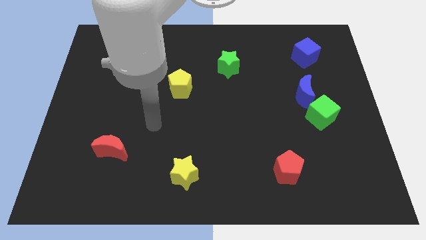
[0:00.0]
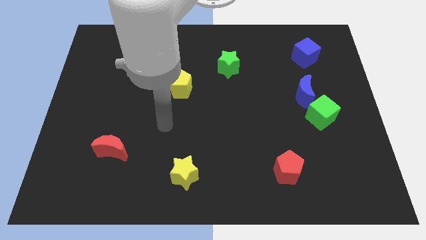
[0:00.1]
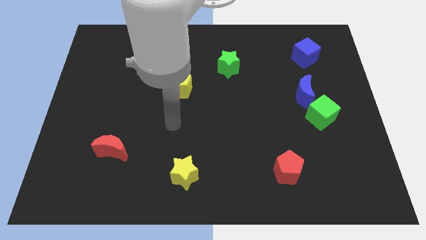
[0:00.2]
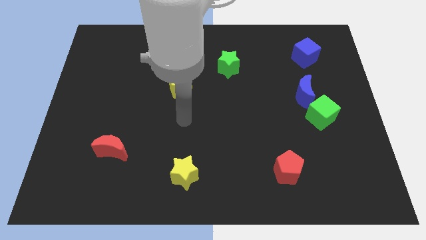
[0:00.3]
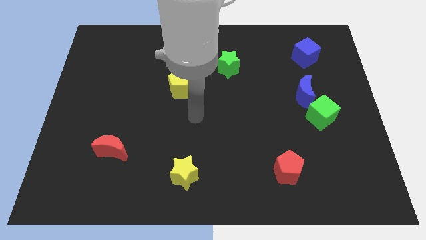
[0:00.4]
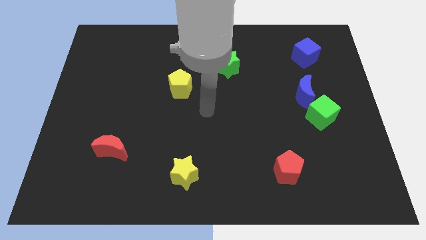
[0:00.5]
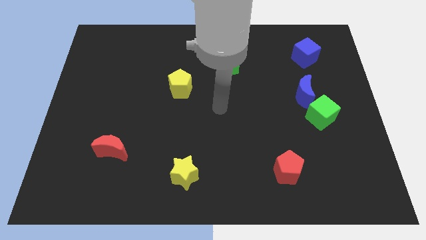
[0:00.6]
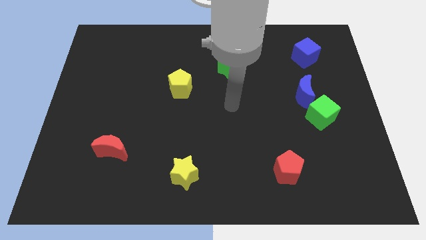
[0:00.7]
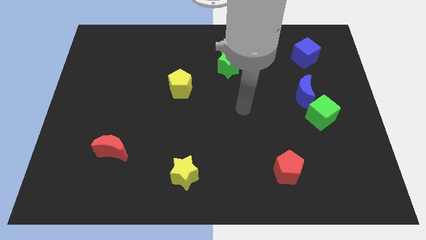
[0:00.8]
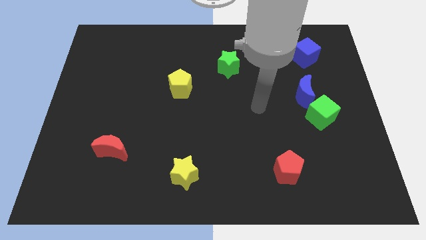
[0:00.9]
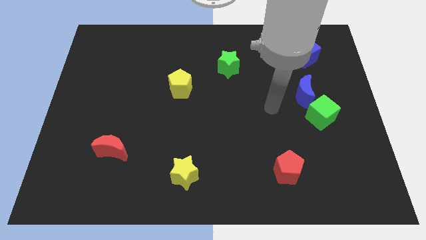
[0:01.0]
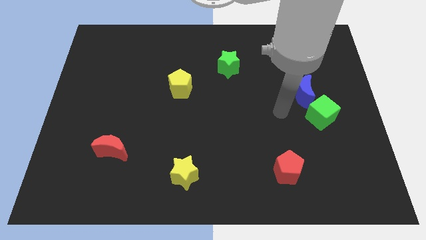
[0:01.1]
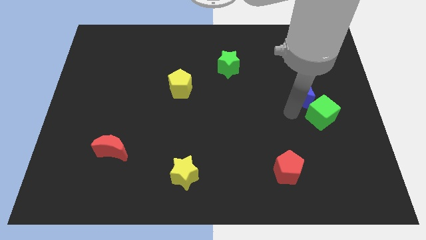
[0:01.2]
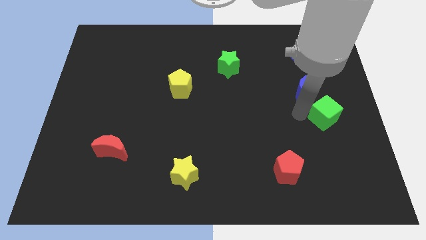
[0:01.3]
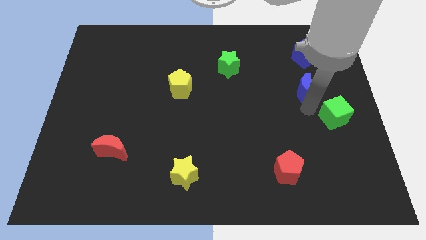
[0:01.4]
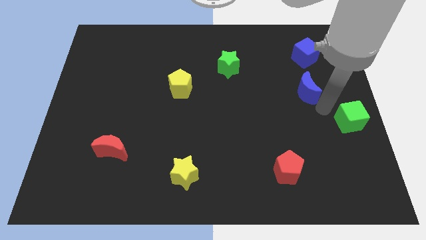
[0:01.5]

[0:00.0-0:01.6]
separate the blue moon from the green cube

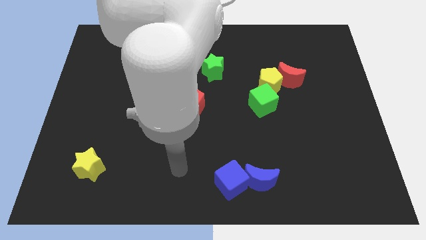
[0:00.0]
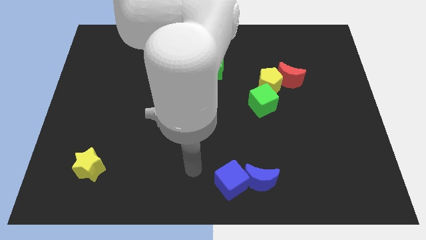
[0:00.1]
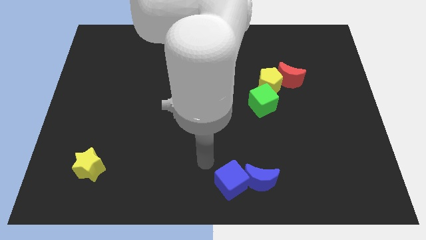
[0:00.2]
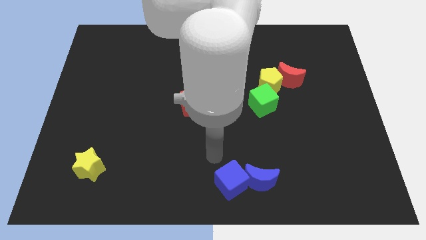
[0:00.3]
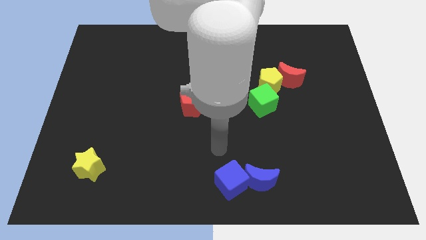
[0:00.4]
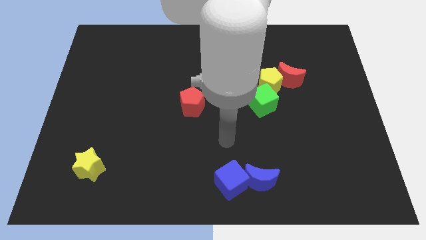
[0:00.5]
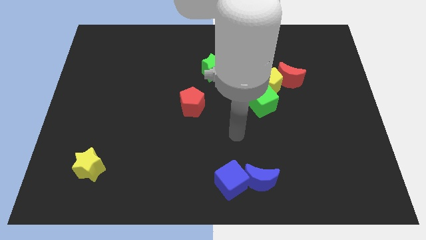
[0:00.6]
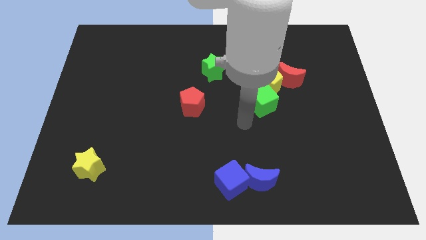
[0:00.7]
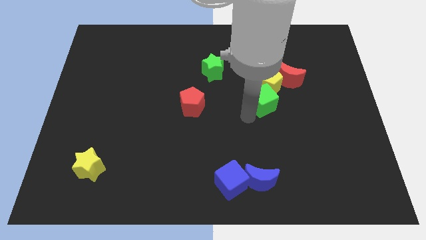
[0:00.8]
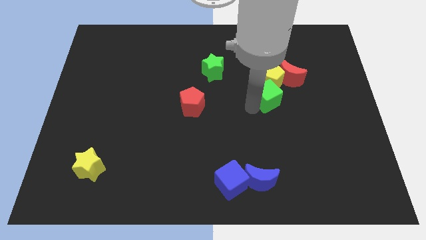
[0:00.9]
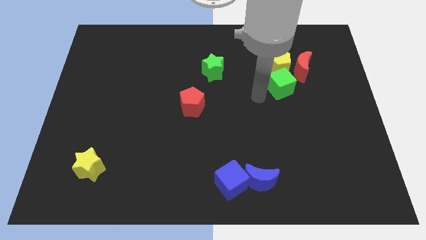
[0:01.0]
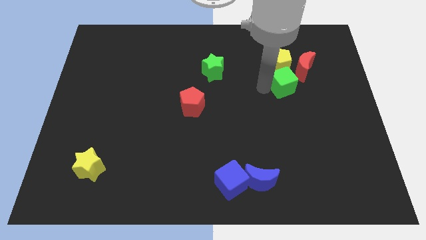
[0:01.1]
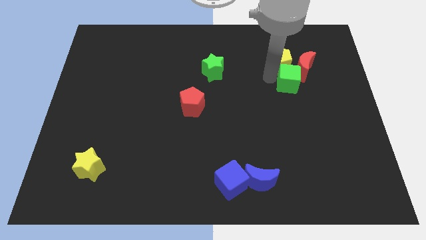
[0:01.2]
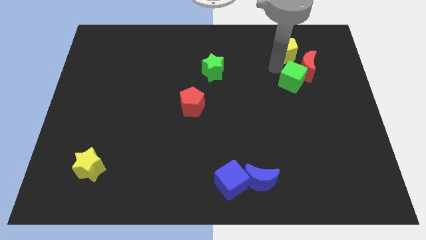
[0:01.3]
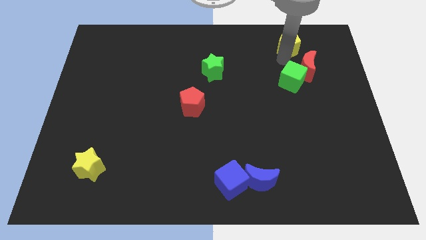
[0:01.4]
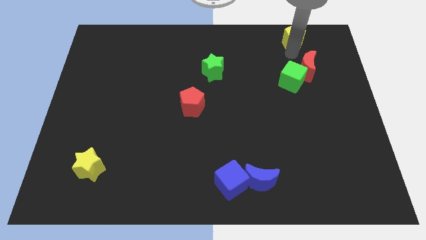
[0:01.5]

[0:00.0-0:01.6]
move the red moon away from the yellow pentagon

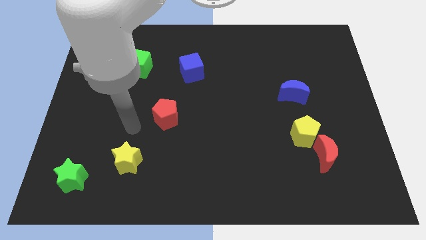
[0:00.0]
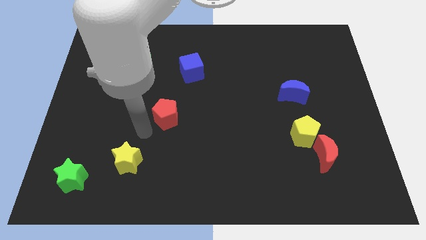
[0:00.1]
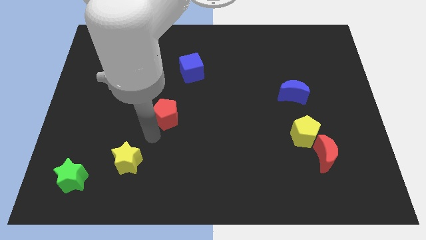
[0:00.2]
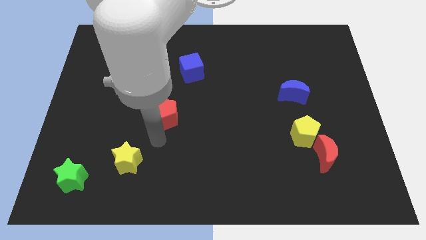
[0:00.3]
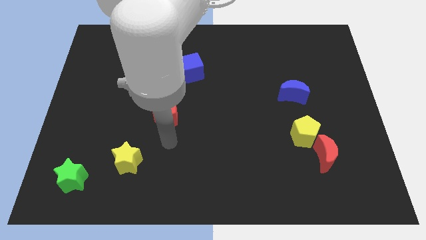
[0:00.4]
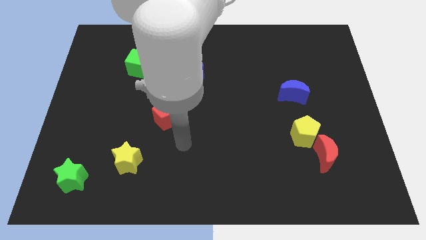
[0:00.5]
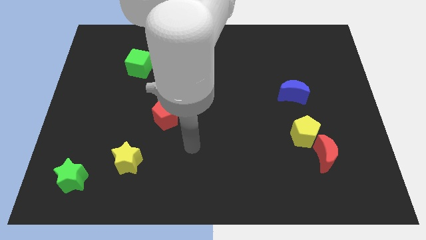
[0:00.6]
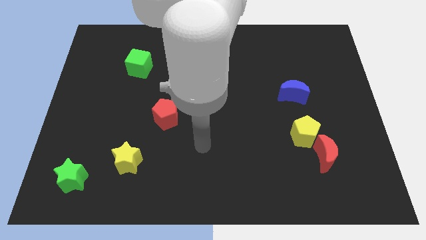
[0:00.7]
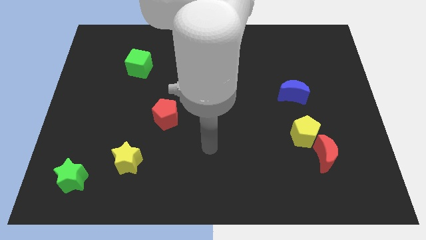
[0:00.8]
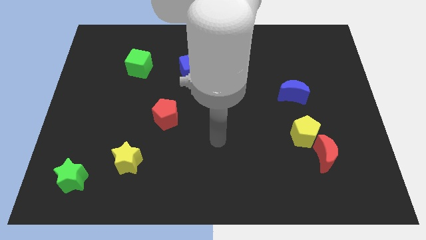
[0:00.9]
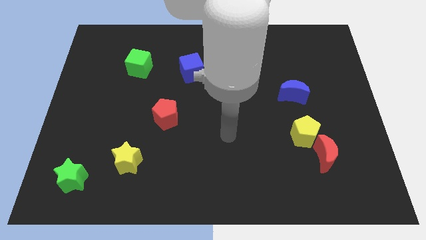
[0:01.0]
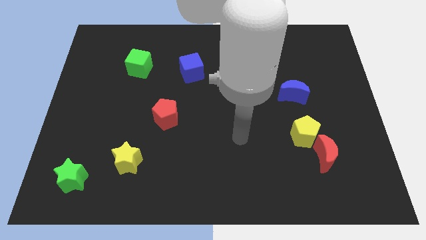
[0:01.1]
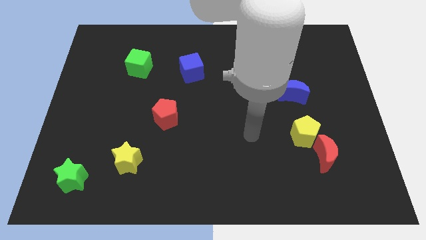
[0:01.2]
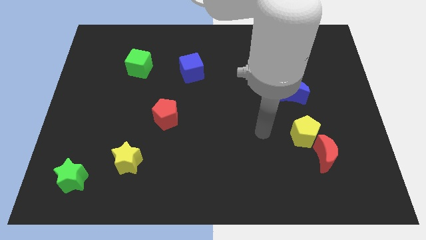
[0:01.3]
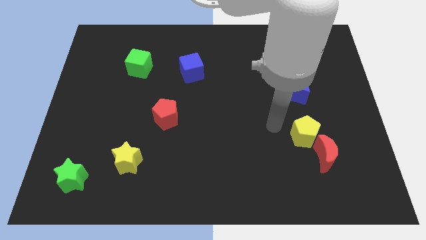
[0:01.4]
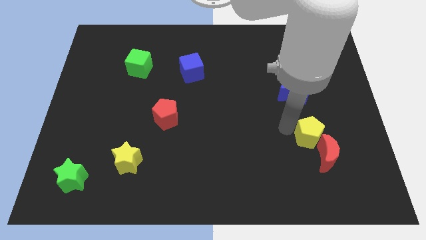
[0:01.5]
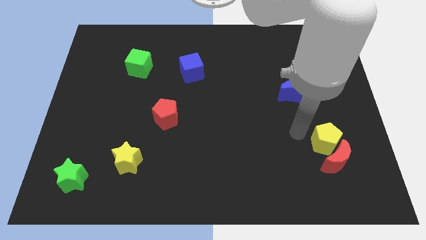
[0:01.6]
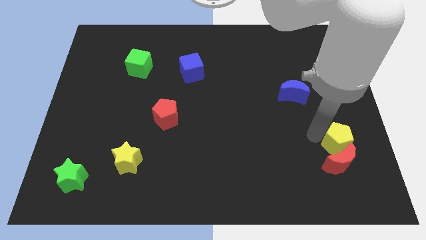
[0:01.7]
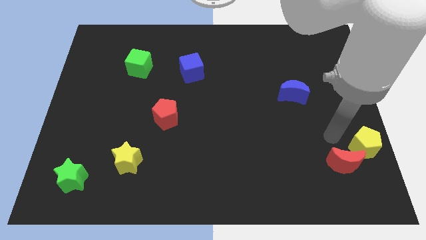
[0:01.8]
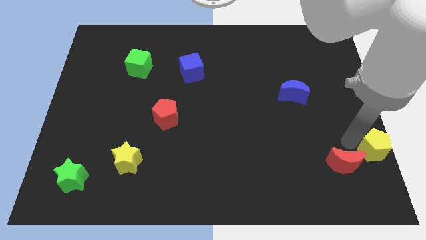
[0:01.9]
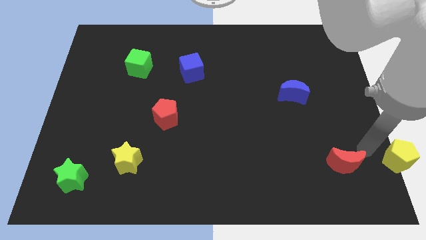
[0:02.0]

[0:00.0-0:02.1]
separate the red moon from the yellow pentagon

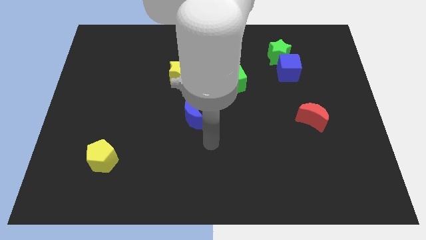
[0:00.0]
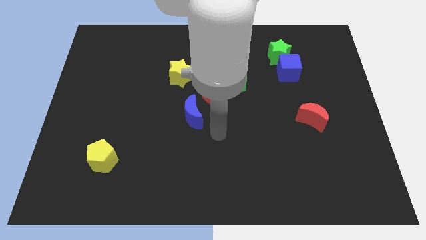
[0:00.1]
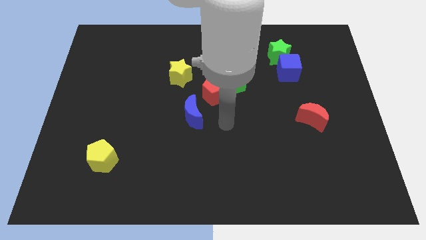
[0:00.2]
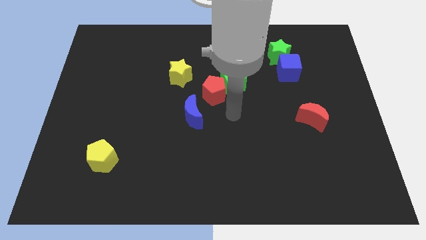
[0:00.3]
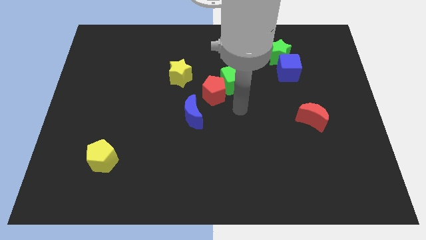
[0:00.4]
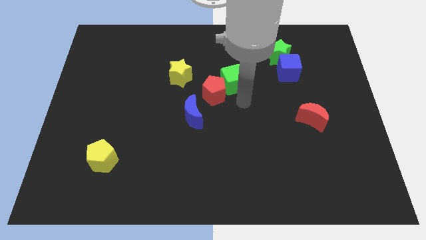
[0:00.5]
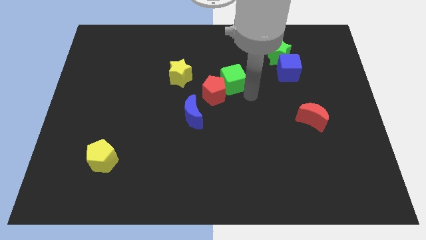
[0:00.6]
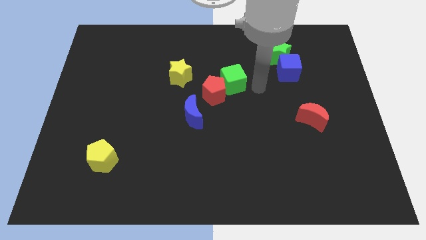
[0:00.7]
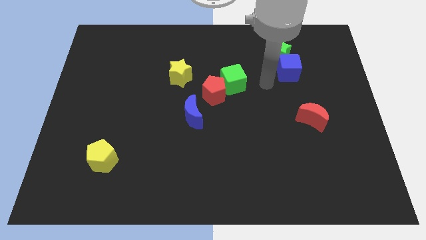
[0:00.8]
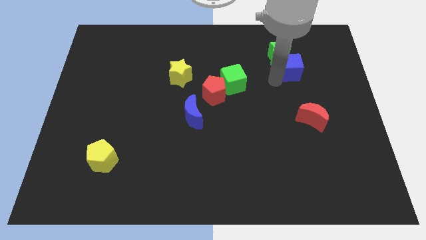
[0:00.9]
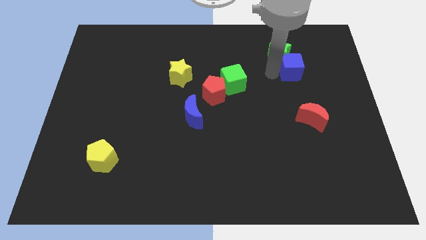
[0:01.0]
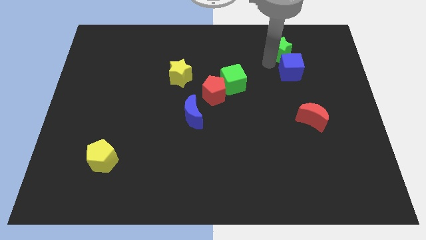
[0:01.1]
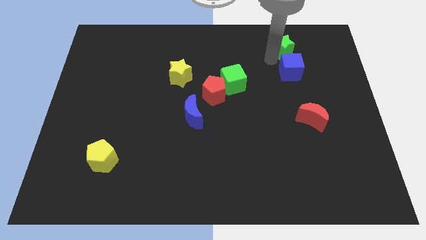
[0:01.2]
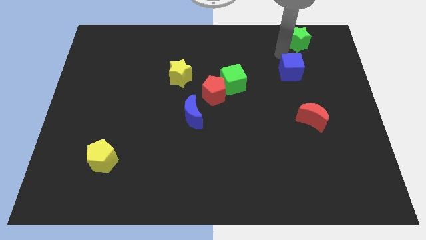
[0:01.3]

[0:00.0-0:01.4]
separate the blue cube from the green star

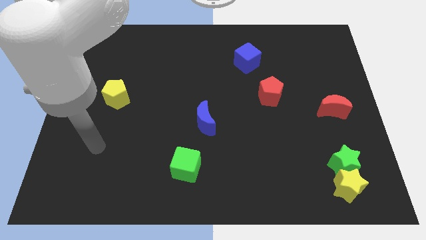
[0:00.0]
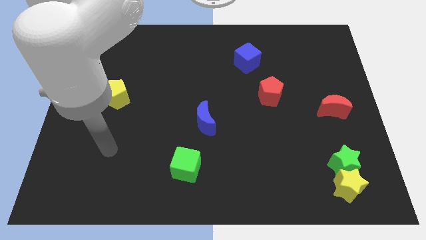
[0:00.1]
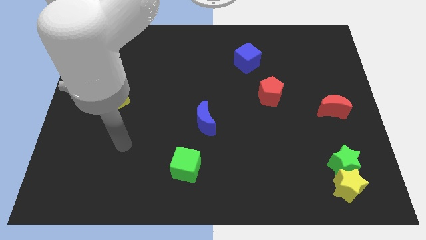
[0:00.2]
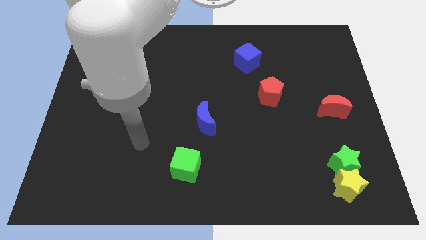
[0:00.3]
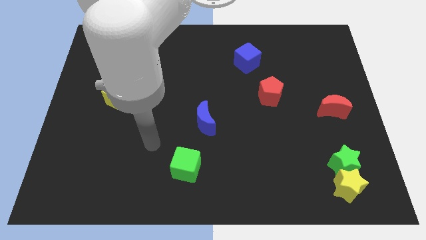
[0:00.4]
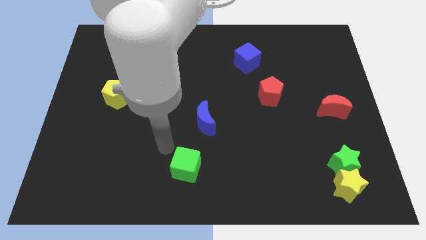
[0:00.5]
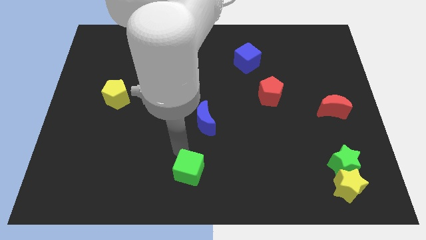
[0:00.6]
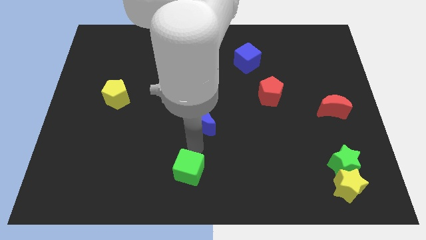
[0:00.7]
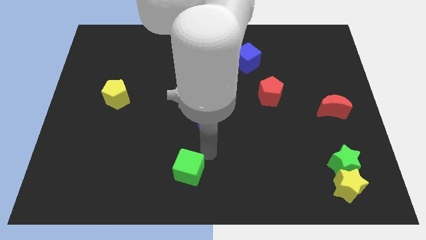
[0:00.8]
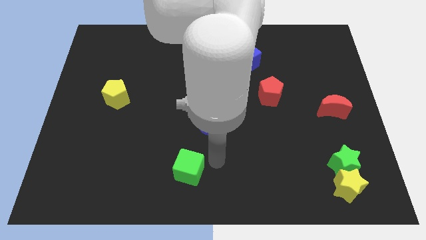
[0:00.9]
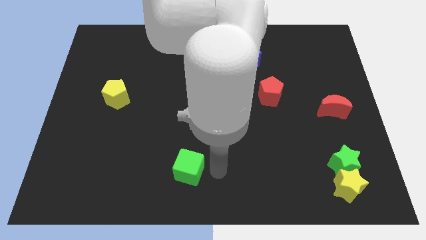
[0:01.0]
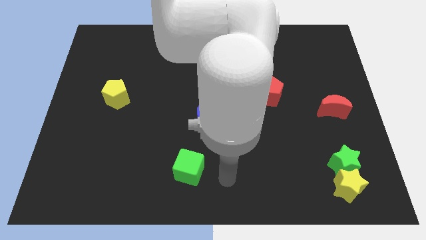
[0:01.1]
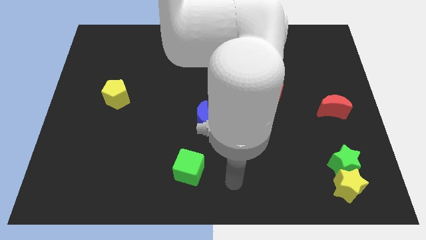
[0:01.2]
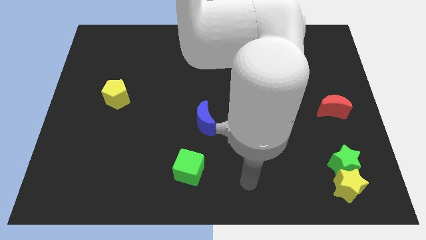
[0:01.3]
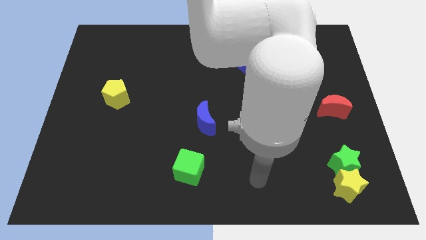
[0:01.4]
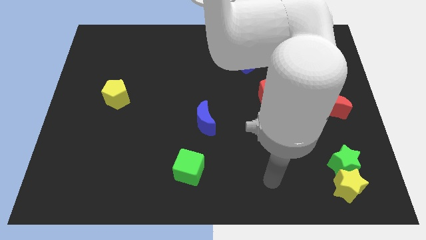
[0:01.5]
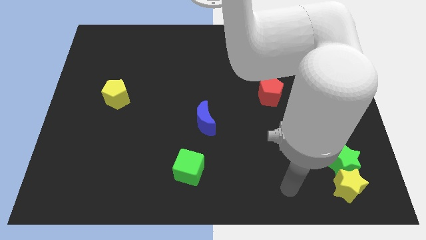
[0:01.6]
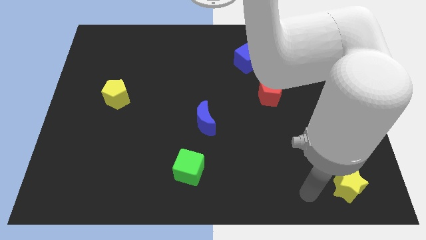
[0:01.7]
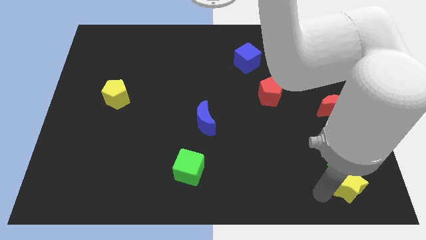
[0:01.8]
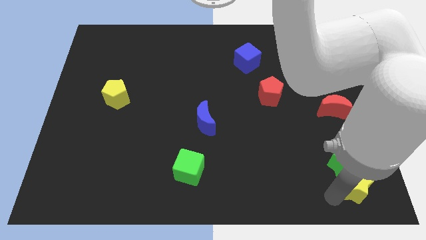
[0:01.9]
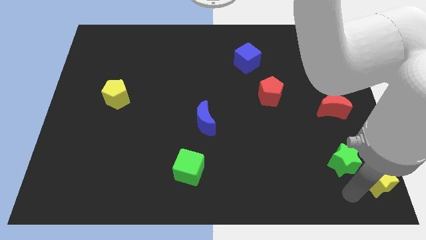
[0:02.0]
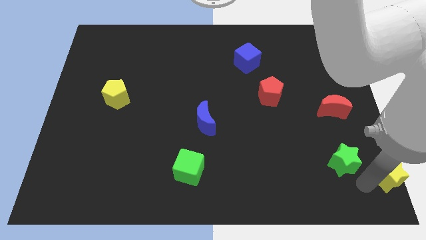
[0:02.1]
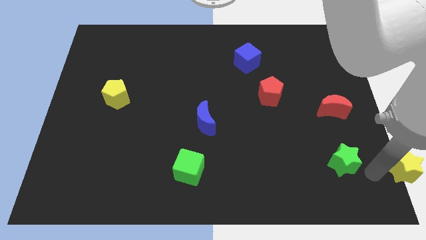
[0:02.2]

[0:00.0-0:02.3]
move the green star away from the yellow star

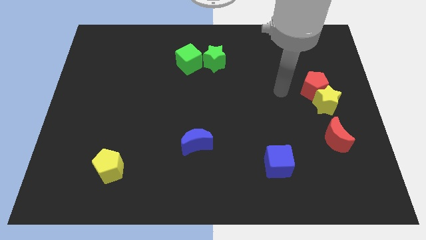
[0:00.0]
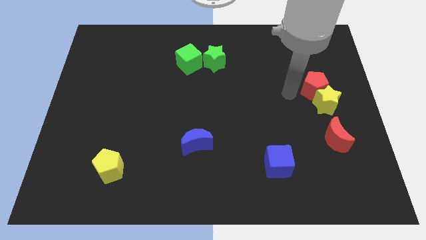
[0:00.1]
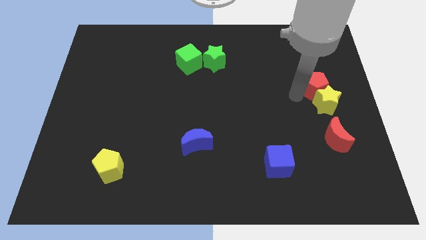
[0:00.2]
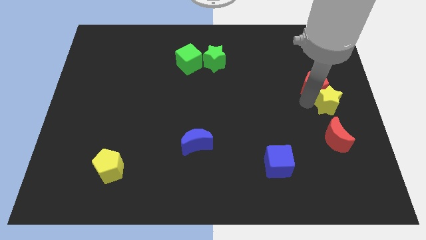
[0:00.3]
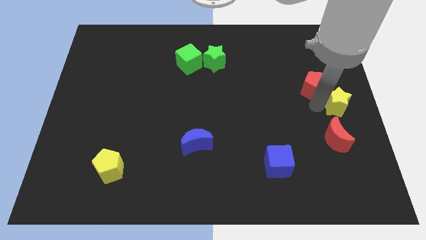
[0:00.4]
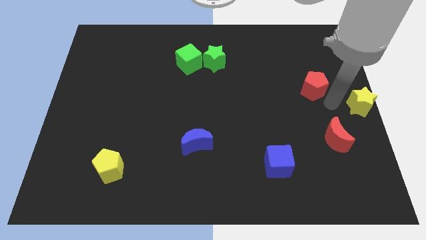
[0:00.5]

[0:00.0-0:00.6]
separate the red pentagon from the yellow star
